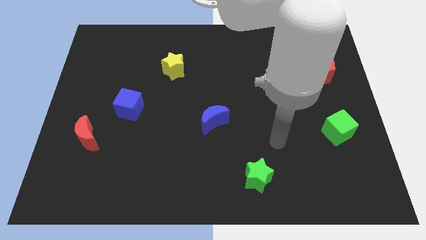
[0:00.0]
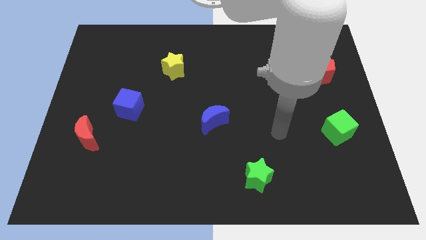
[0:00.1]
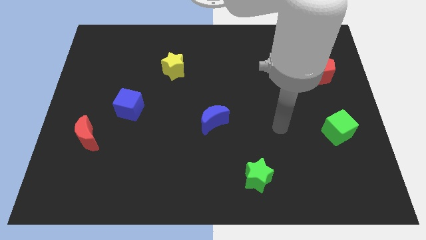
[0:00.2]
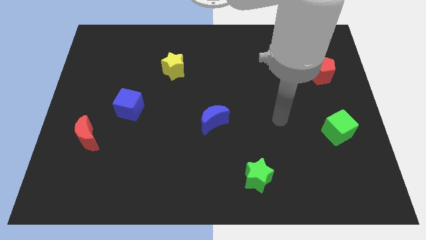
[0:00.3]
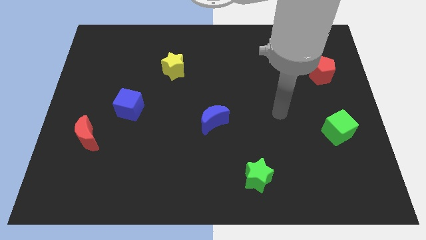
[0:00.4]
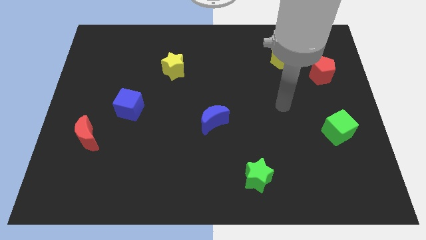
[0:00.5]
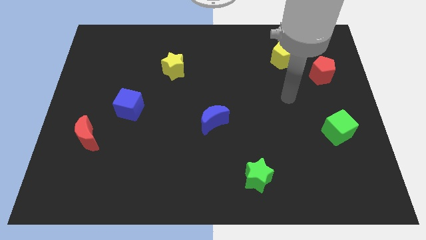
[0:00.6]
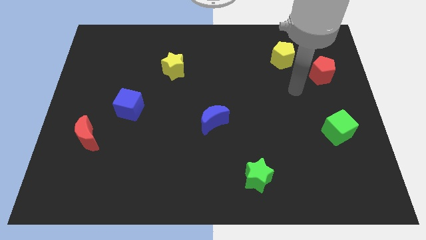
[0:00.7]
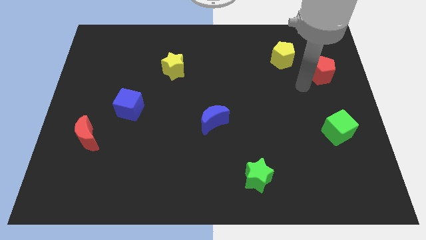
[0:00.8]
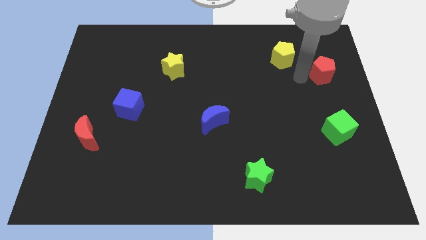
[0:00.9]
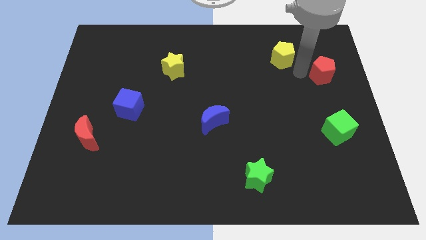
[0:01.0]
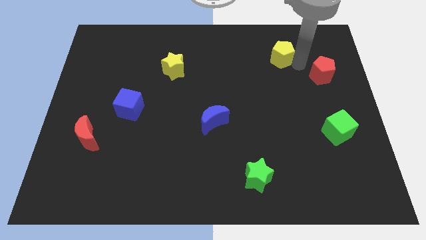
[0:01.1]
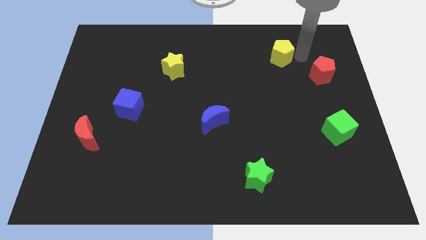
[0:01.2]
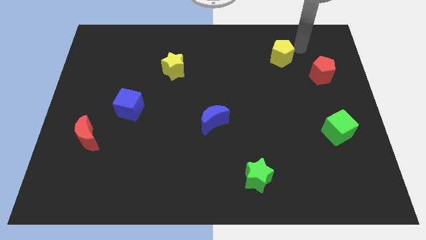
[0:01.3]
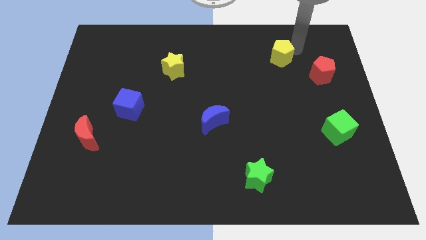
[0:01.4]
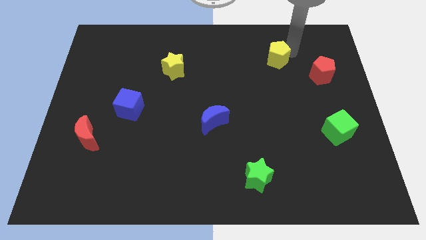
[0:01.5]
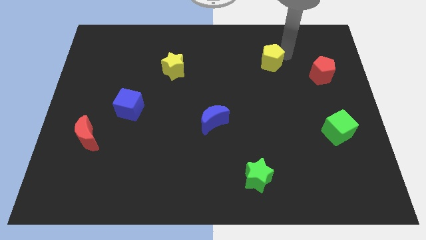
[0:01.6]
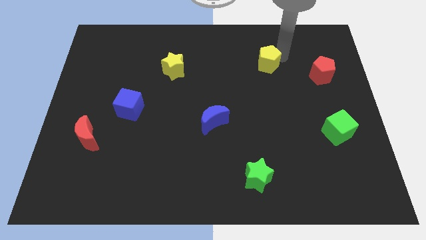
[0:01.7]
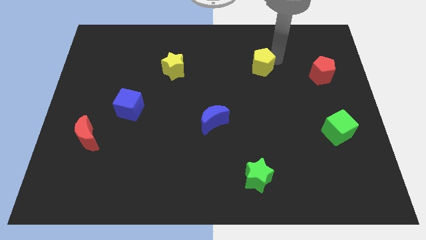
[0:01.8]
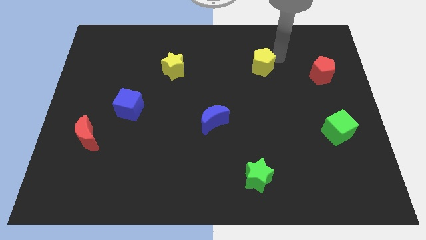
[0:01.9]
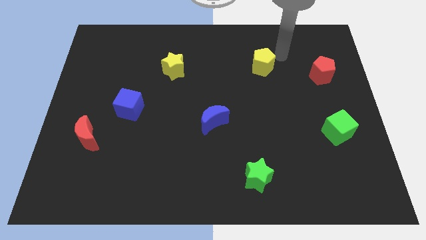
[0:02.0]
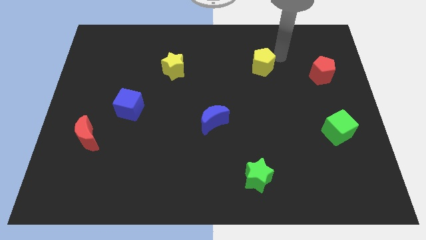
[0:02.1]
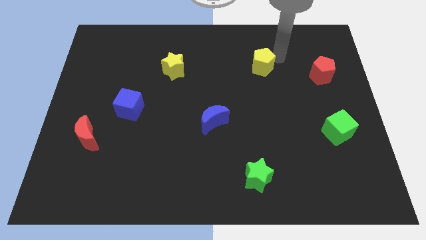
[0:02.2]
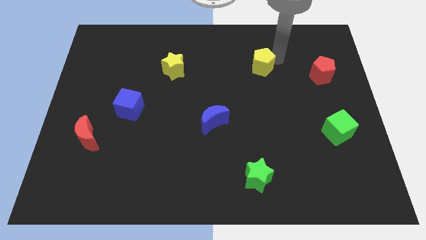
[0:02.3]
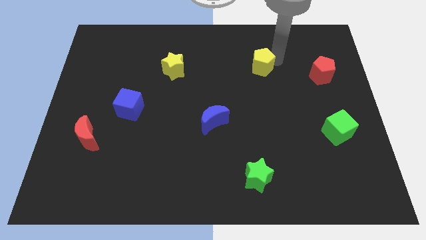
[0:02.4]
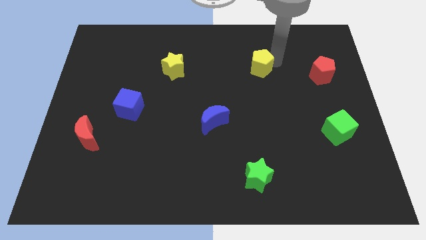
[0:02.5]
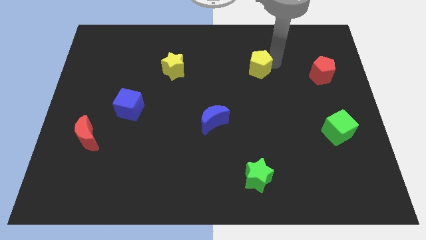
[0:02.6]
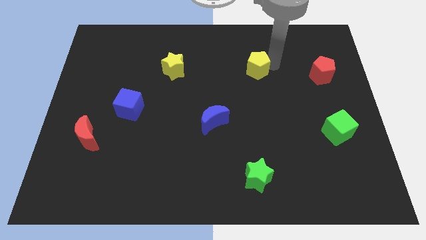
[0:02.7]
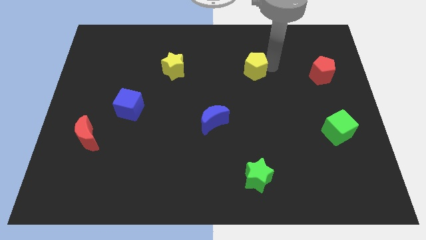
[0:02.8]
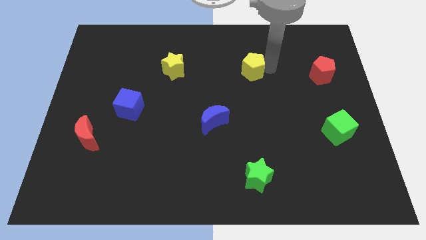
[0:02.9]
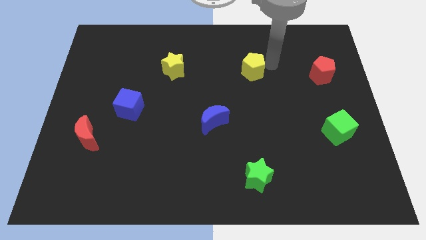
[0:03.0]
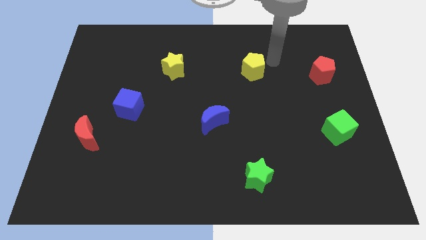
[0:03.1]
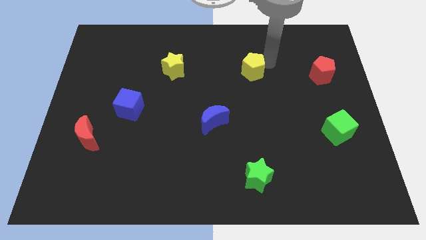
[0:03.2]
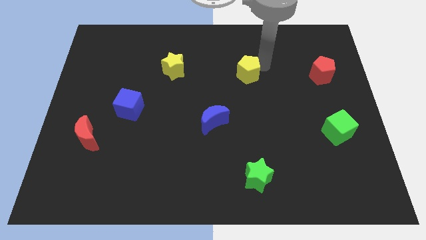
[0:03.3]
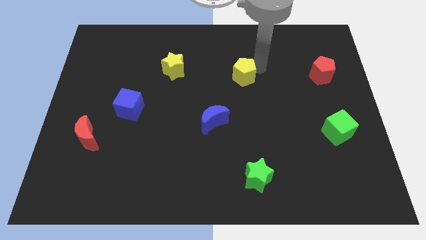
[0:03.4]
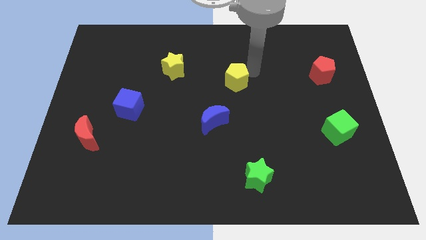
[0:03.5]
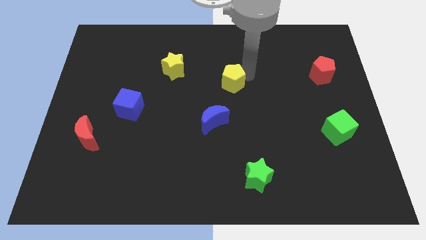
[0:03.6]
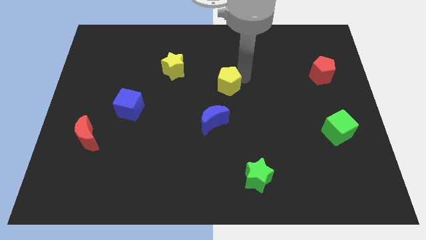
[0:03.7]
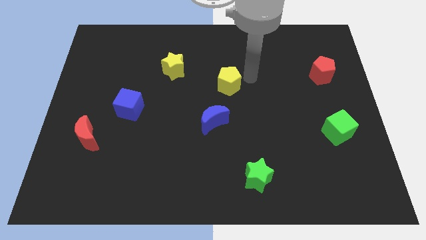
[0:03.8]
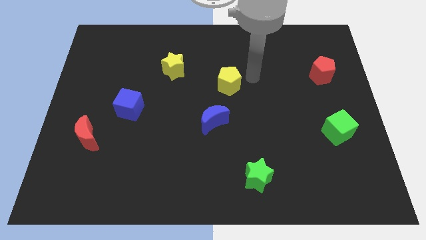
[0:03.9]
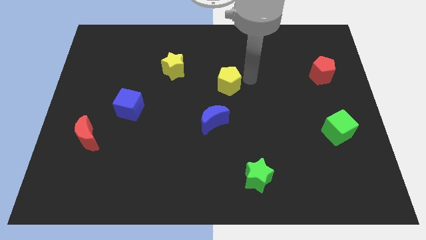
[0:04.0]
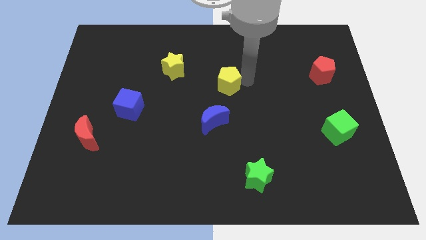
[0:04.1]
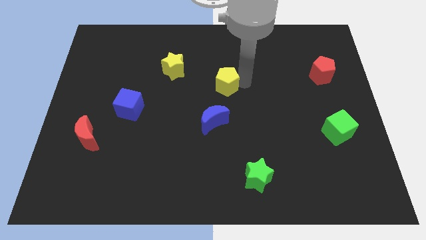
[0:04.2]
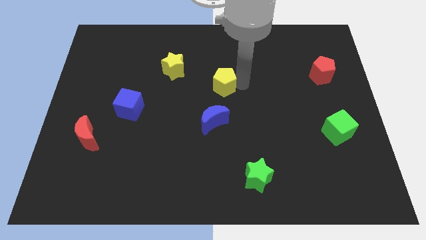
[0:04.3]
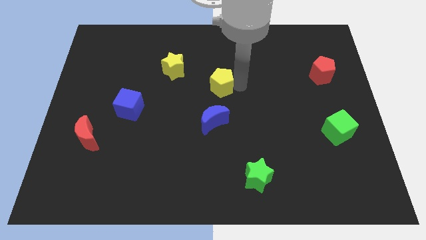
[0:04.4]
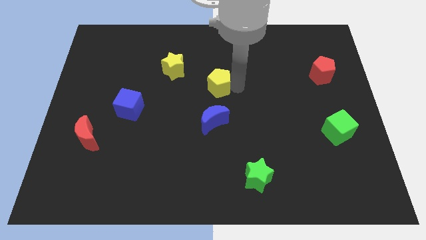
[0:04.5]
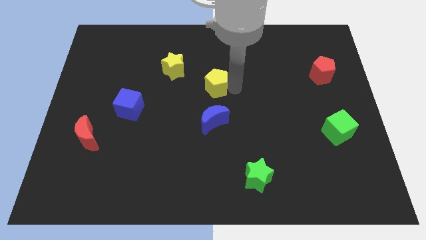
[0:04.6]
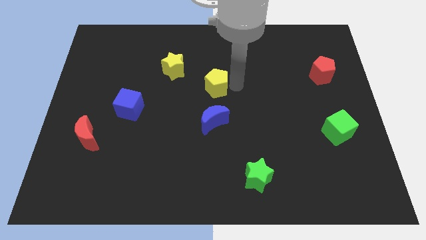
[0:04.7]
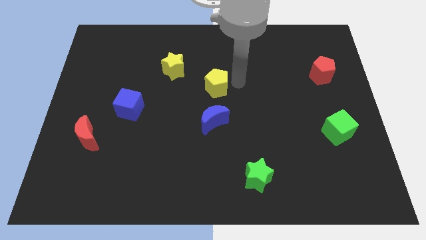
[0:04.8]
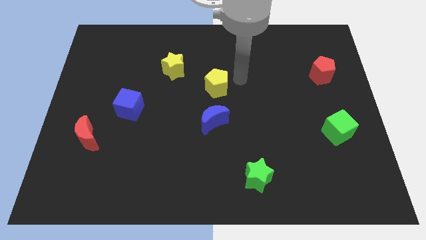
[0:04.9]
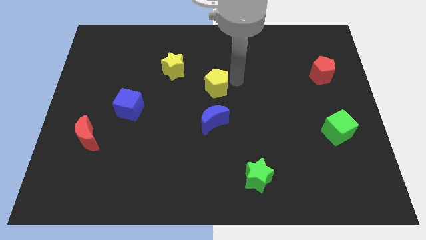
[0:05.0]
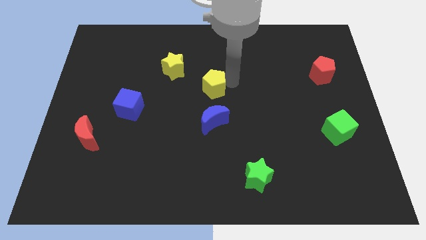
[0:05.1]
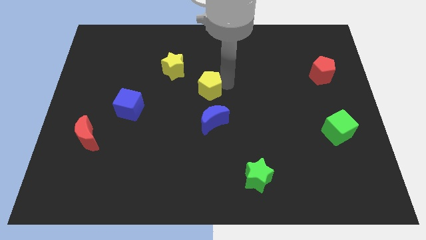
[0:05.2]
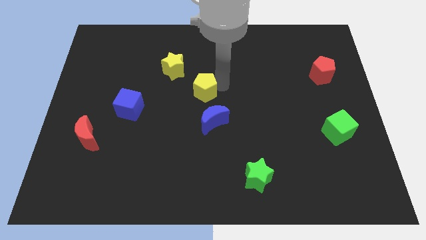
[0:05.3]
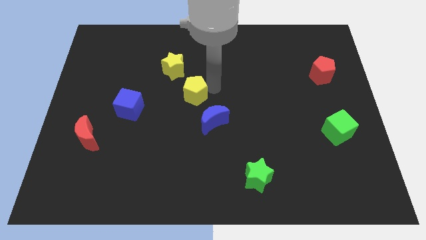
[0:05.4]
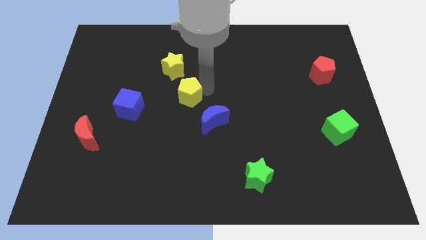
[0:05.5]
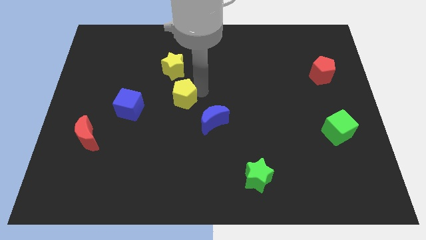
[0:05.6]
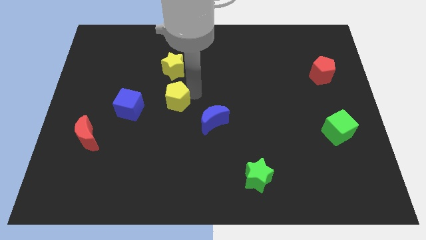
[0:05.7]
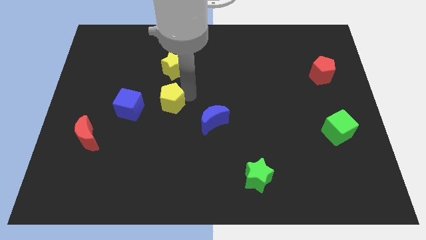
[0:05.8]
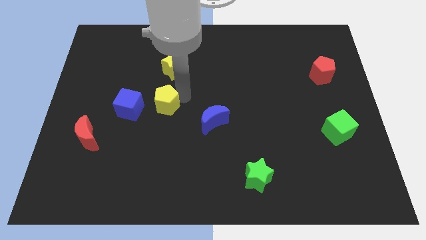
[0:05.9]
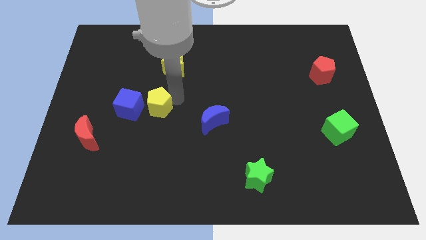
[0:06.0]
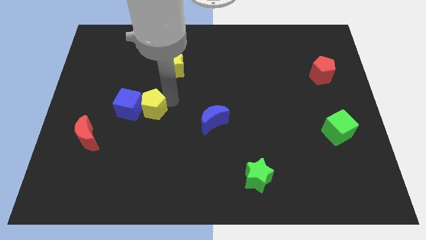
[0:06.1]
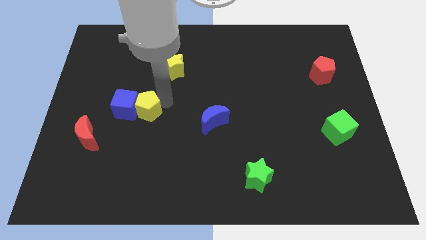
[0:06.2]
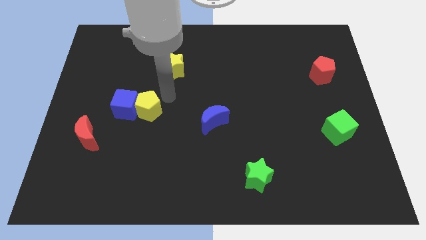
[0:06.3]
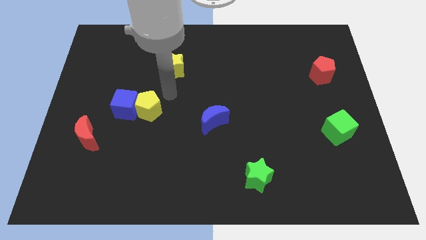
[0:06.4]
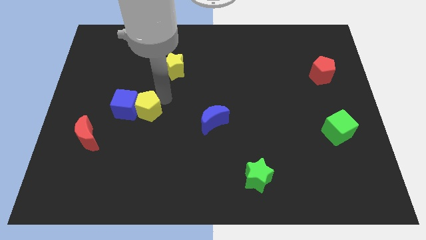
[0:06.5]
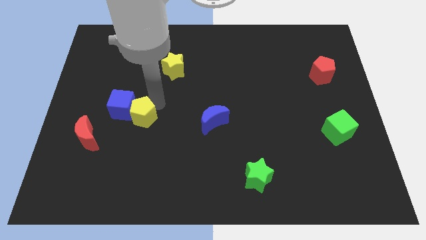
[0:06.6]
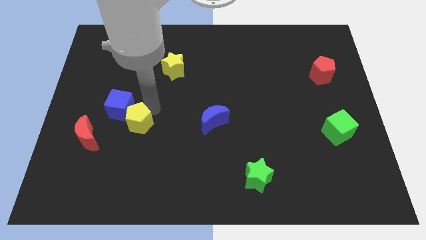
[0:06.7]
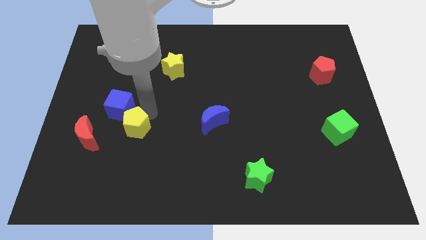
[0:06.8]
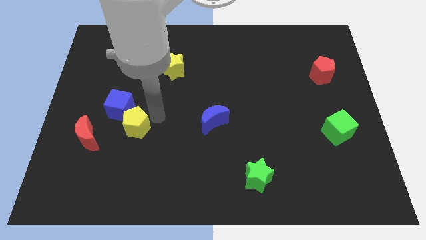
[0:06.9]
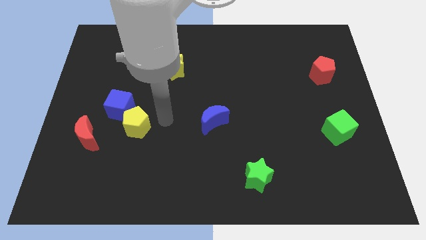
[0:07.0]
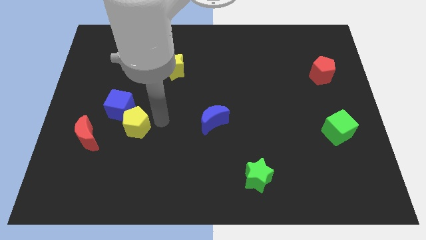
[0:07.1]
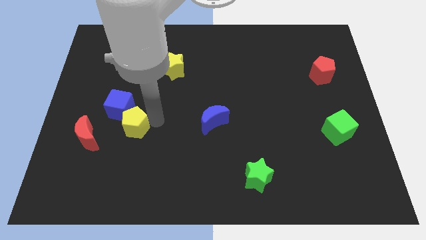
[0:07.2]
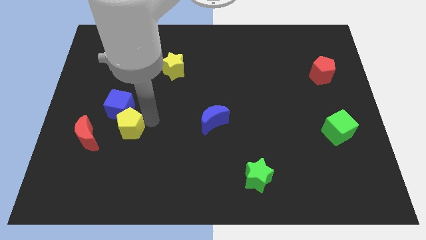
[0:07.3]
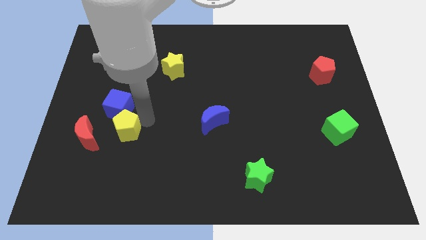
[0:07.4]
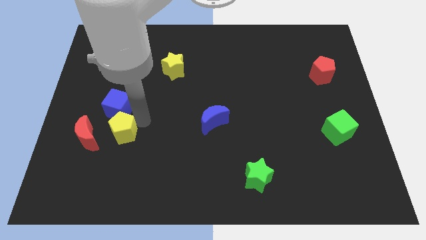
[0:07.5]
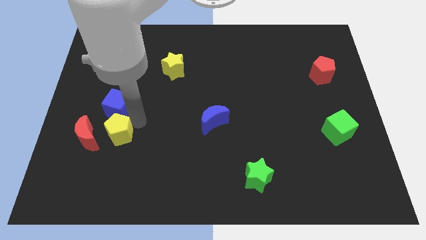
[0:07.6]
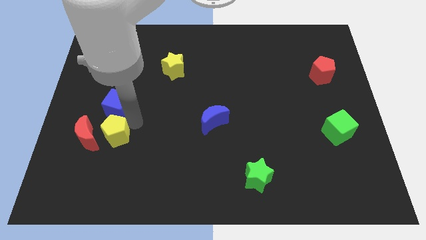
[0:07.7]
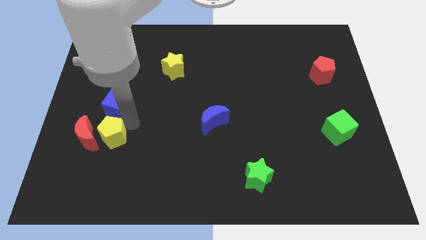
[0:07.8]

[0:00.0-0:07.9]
push the yellow pentagon next to the red moon
